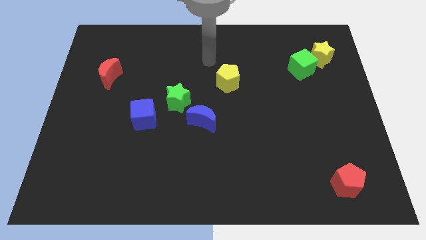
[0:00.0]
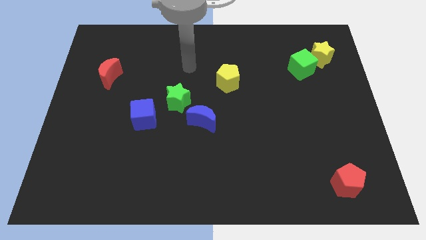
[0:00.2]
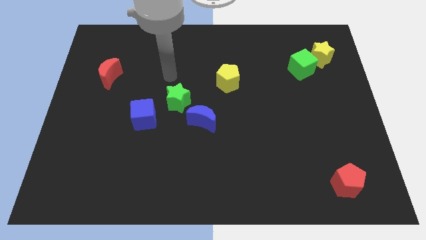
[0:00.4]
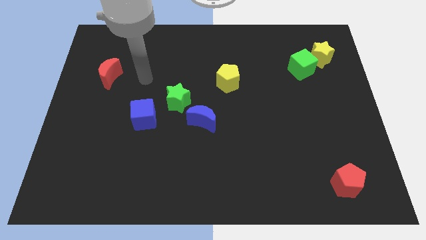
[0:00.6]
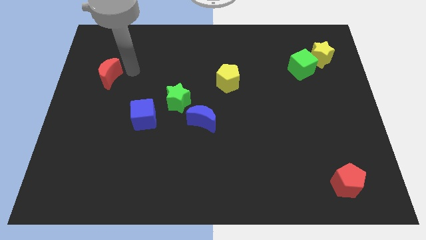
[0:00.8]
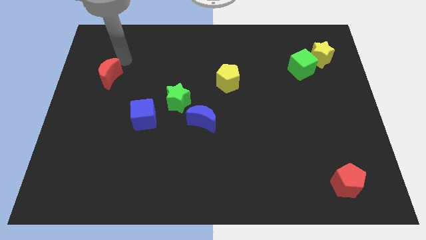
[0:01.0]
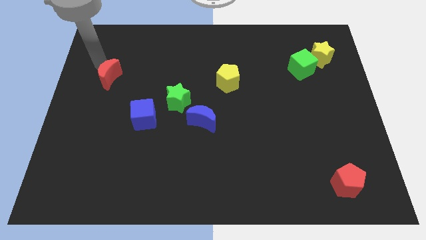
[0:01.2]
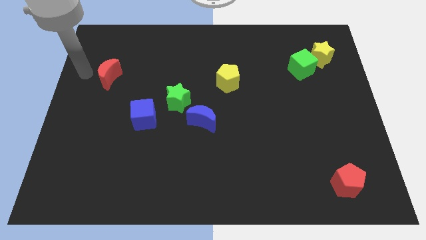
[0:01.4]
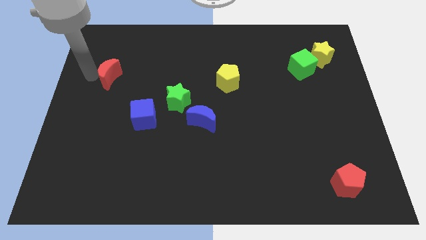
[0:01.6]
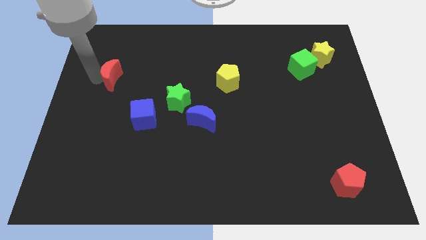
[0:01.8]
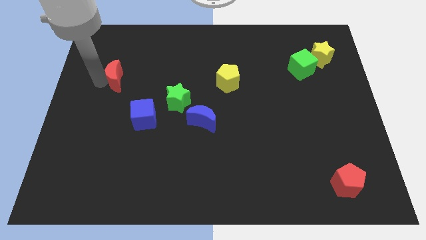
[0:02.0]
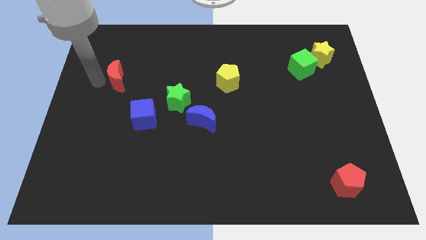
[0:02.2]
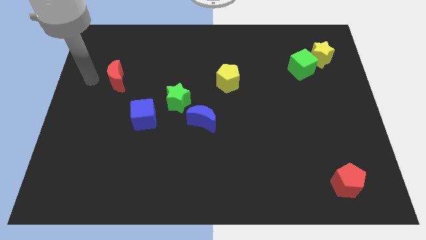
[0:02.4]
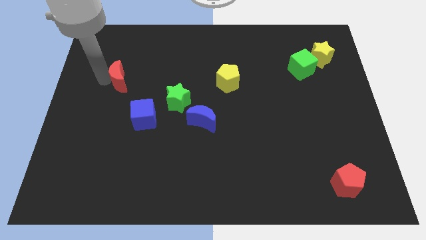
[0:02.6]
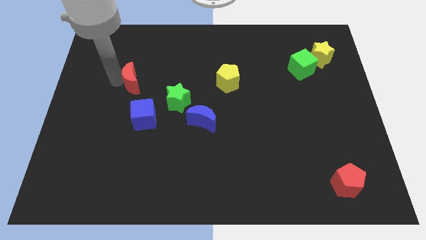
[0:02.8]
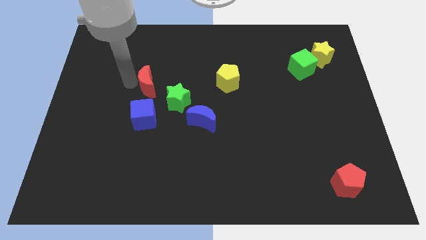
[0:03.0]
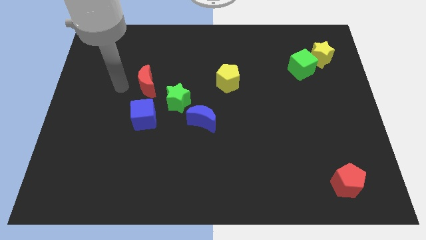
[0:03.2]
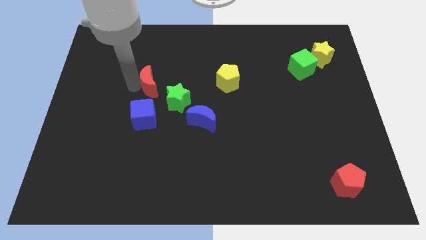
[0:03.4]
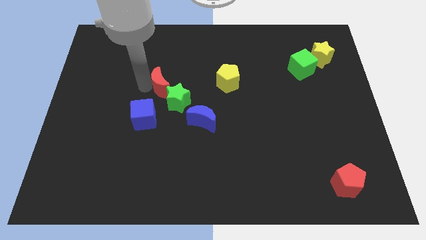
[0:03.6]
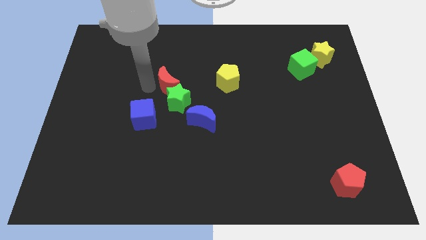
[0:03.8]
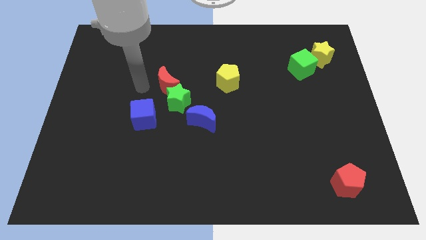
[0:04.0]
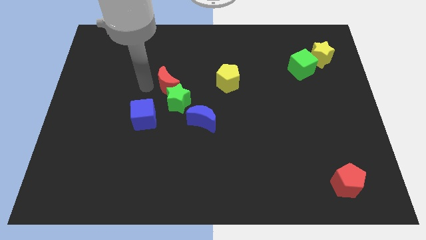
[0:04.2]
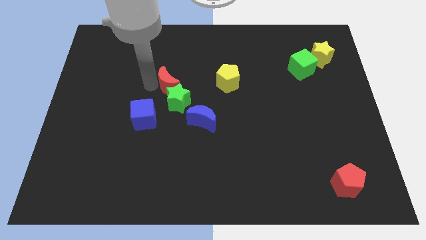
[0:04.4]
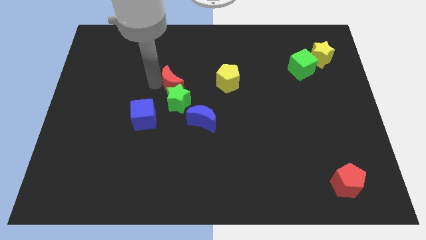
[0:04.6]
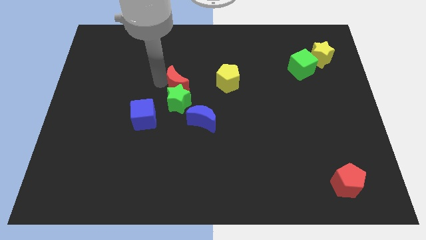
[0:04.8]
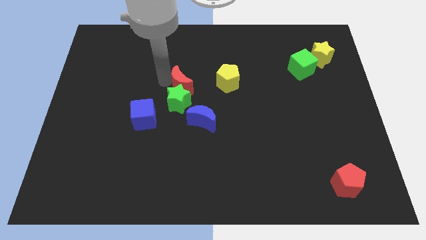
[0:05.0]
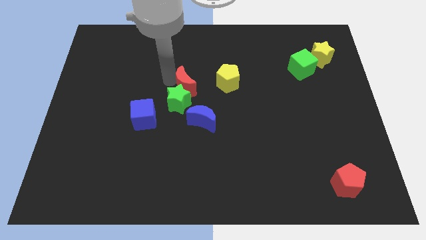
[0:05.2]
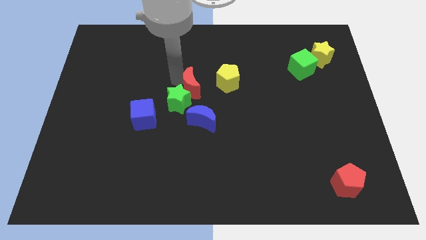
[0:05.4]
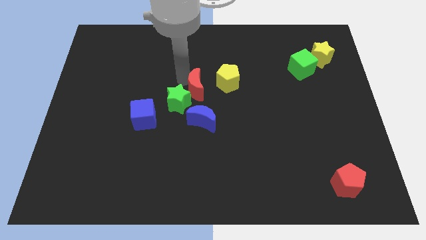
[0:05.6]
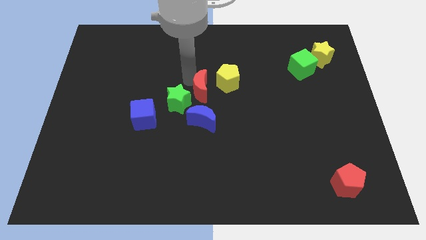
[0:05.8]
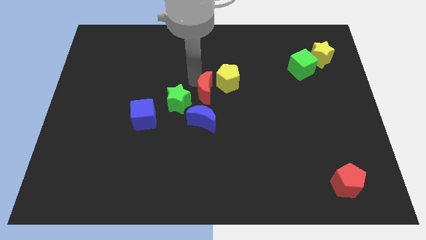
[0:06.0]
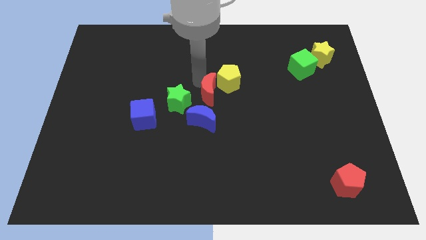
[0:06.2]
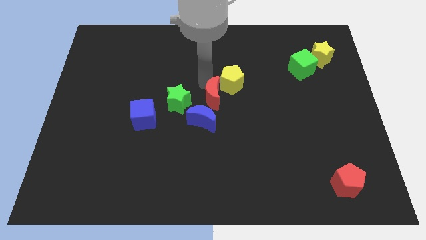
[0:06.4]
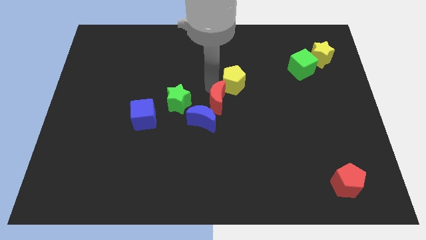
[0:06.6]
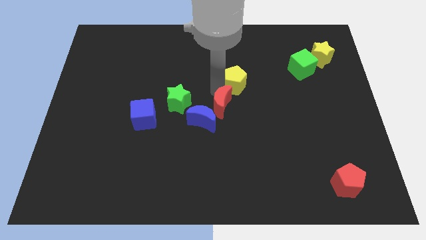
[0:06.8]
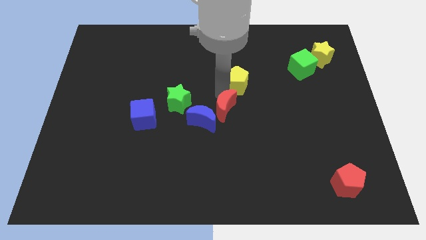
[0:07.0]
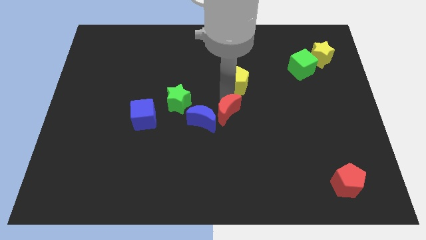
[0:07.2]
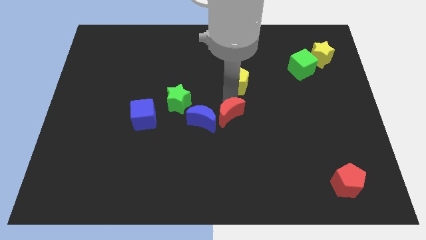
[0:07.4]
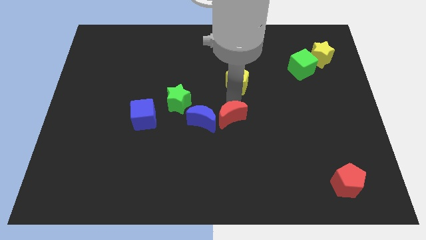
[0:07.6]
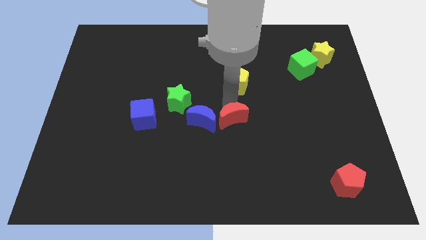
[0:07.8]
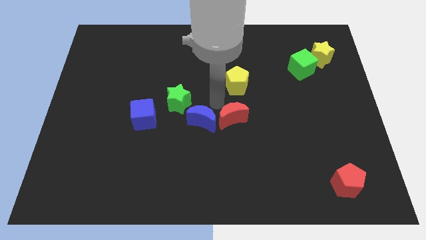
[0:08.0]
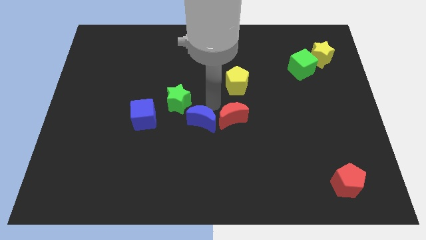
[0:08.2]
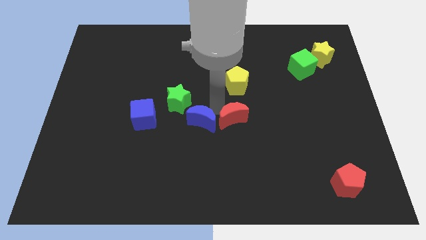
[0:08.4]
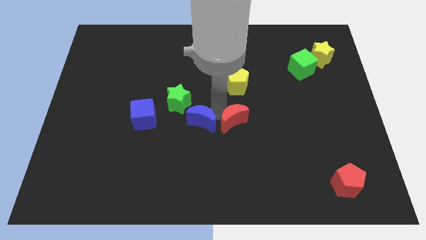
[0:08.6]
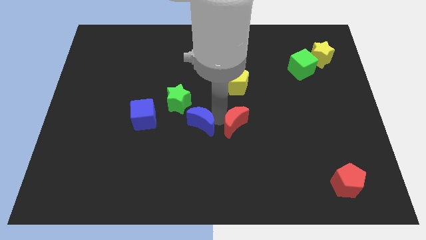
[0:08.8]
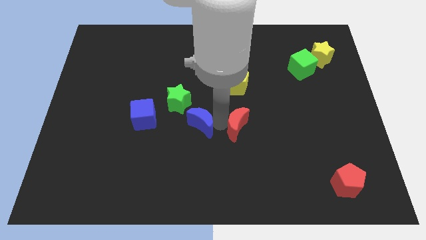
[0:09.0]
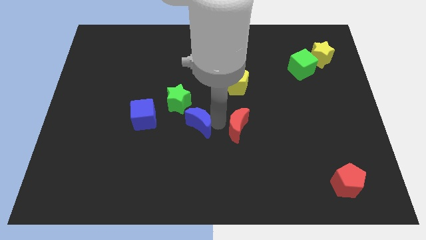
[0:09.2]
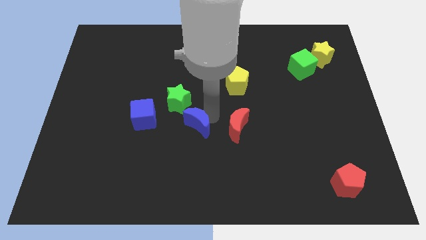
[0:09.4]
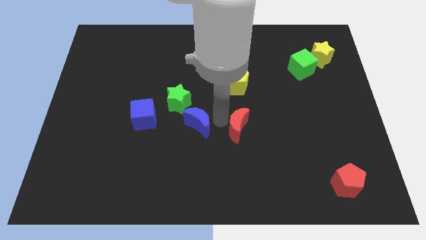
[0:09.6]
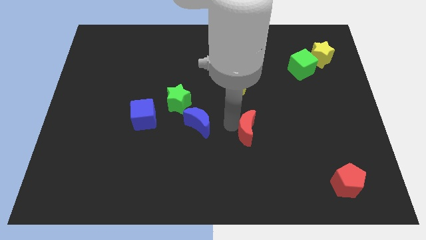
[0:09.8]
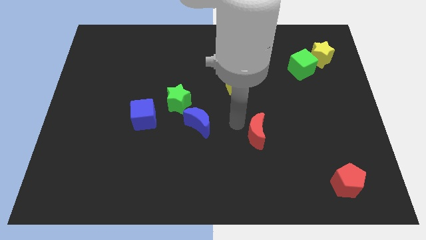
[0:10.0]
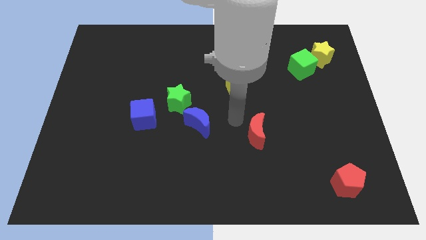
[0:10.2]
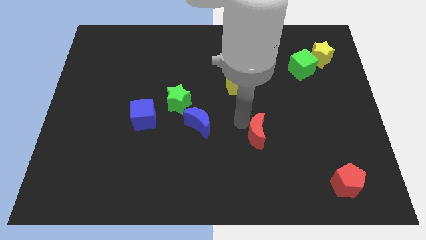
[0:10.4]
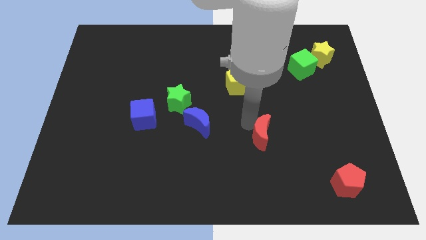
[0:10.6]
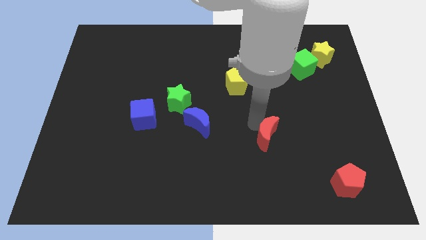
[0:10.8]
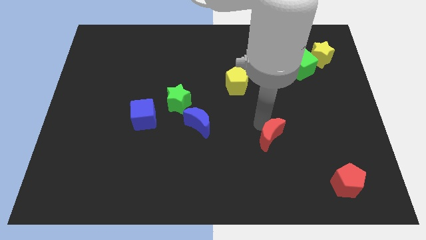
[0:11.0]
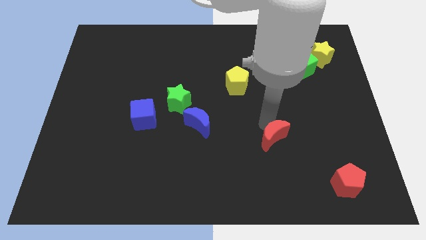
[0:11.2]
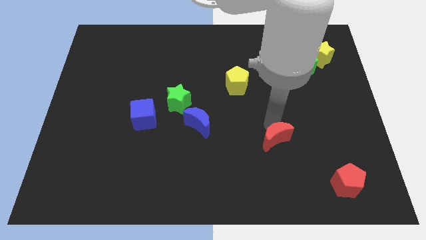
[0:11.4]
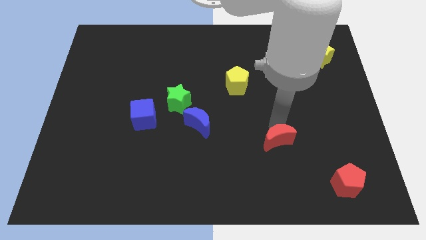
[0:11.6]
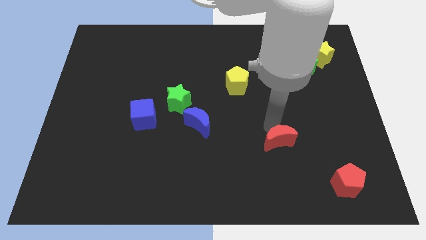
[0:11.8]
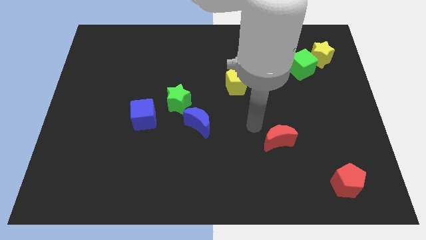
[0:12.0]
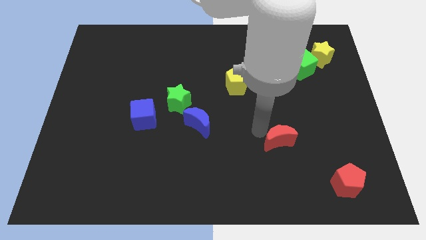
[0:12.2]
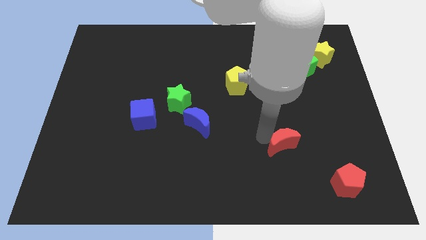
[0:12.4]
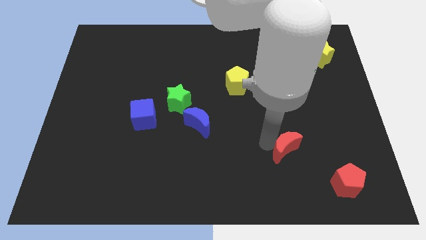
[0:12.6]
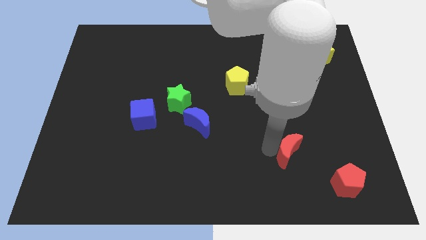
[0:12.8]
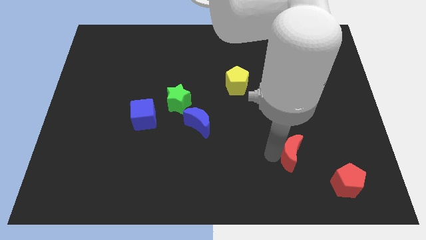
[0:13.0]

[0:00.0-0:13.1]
push the red moon to the top left of the red pentagon

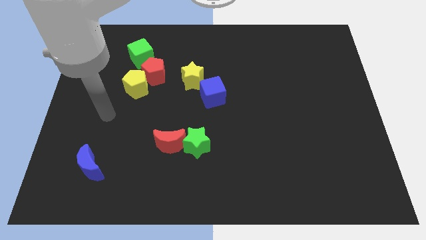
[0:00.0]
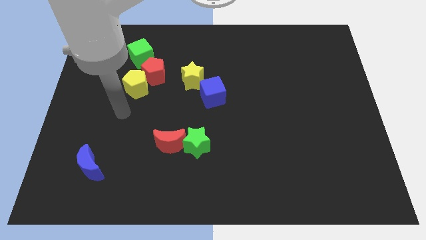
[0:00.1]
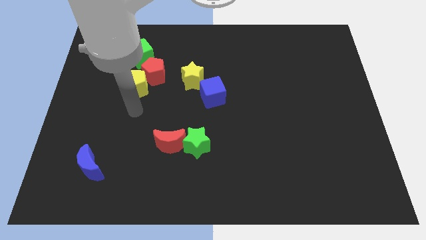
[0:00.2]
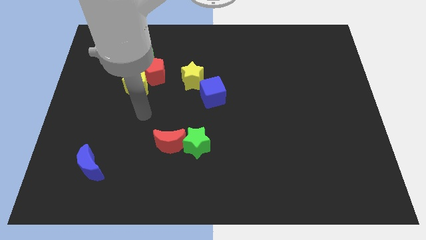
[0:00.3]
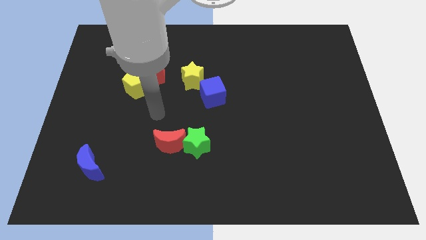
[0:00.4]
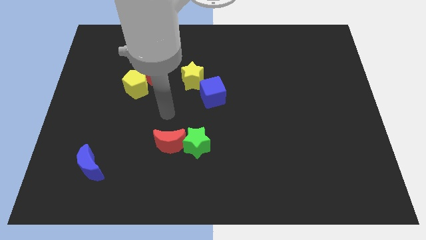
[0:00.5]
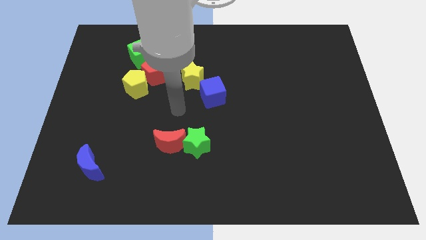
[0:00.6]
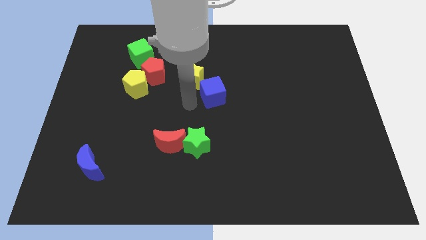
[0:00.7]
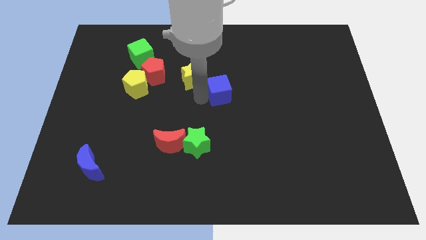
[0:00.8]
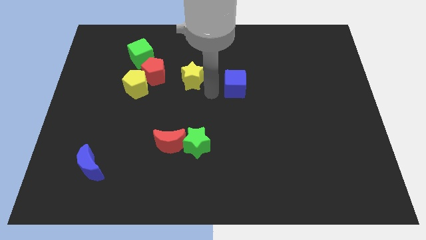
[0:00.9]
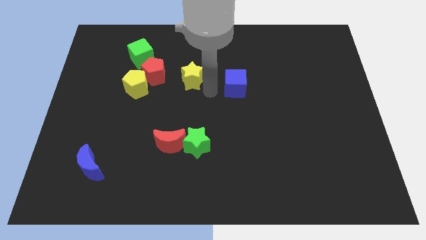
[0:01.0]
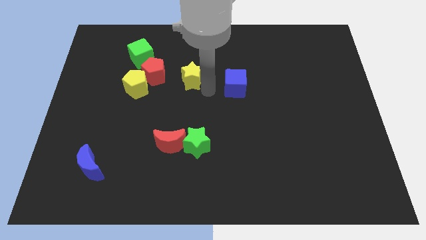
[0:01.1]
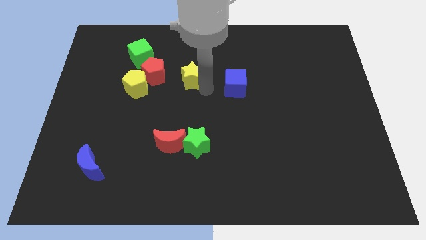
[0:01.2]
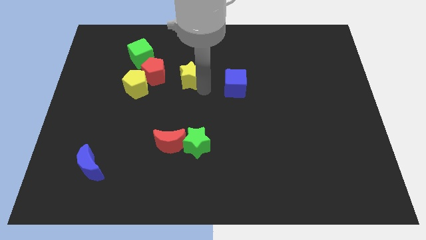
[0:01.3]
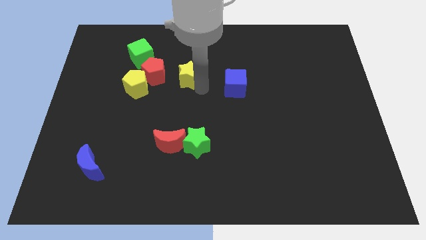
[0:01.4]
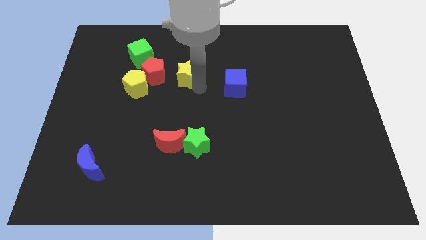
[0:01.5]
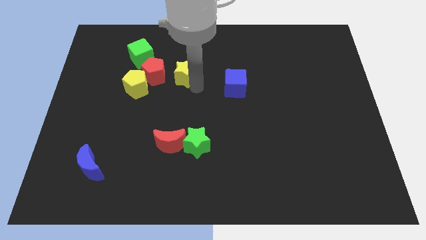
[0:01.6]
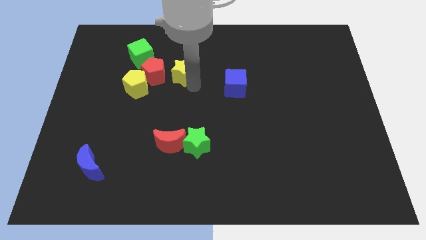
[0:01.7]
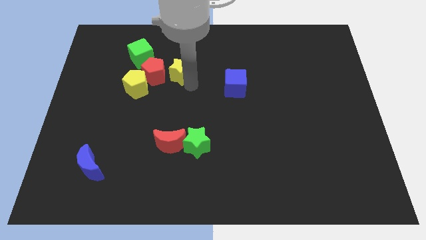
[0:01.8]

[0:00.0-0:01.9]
put the yellow star to the top right of the red pentagon
